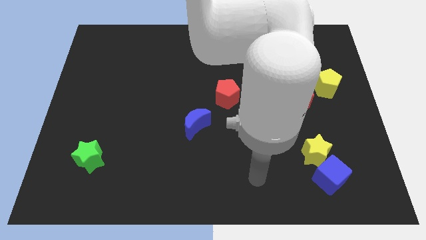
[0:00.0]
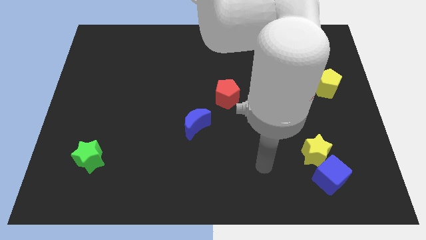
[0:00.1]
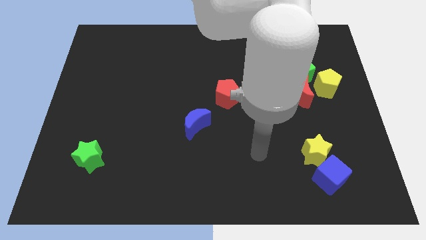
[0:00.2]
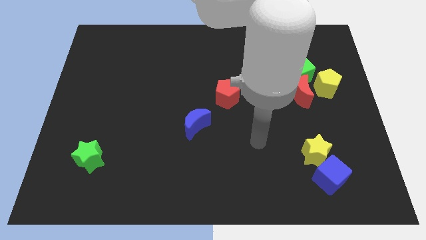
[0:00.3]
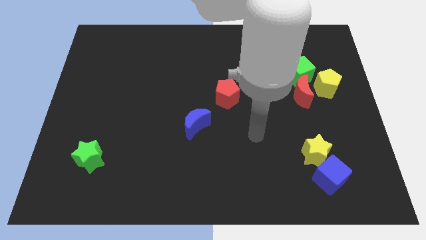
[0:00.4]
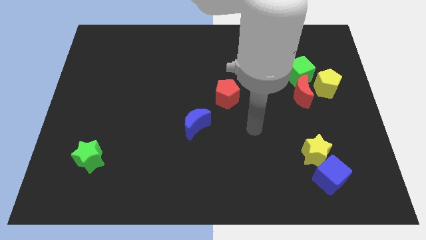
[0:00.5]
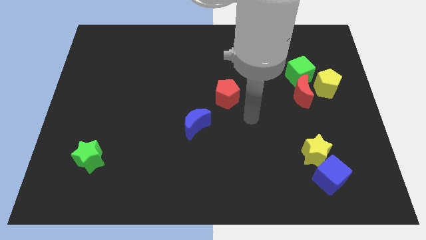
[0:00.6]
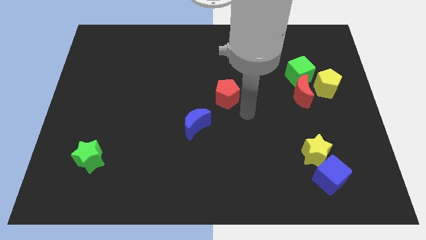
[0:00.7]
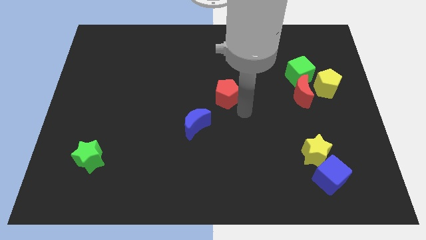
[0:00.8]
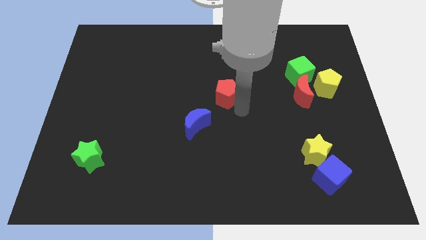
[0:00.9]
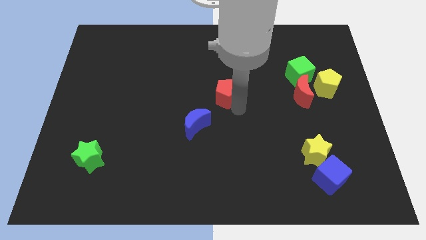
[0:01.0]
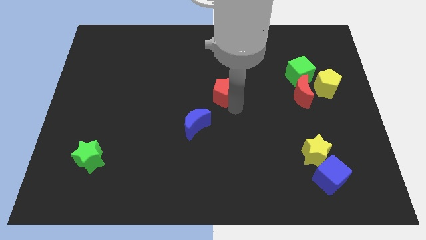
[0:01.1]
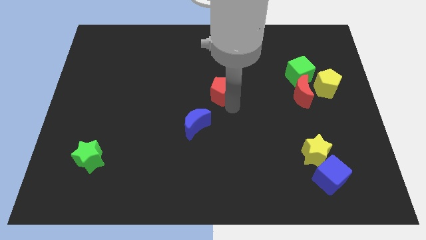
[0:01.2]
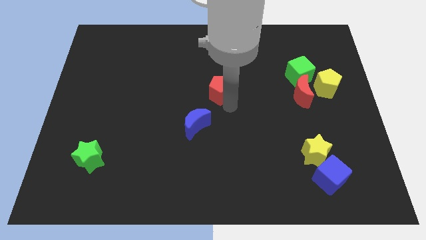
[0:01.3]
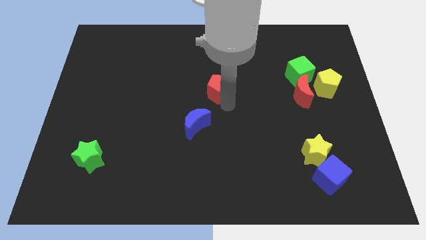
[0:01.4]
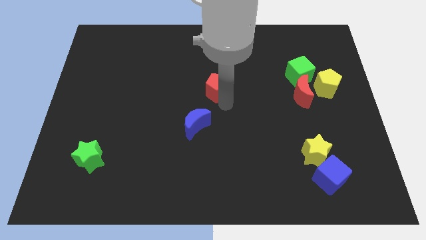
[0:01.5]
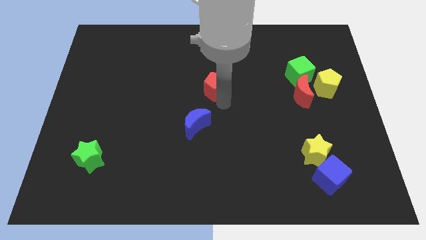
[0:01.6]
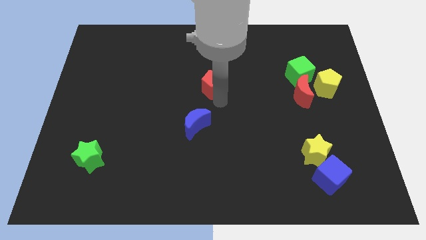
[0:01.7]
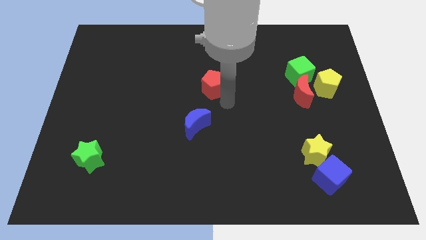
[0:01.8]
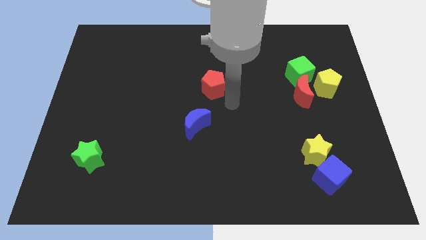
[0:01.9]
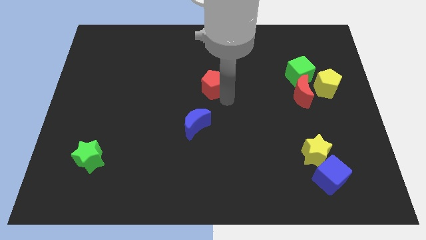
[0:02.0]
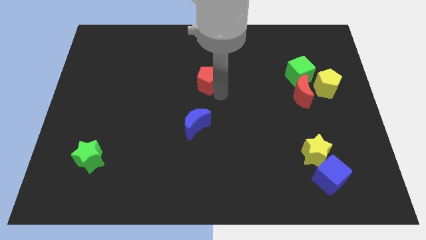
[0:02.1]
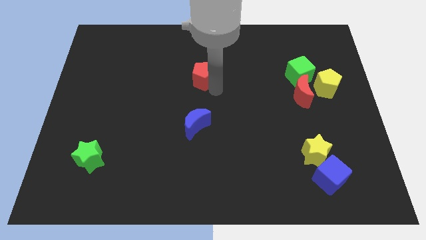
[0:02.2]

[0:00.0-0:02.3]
slightly move the red pentagon upwards and then left

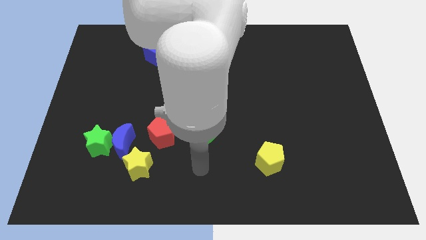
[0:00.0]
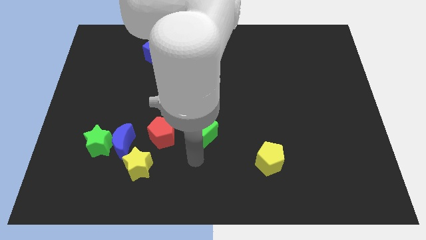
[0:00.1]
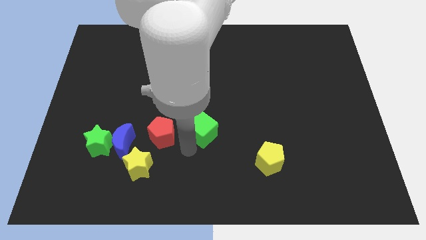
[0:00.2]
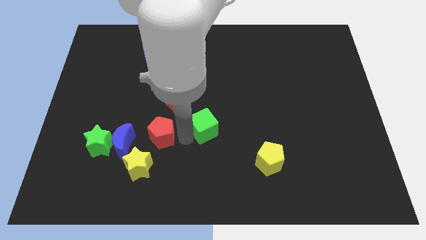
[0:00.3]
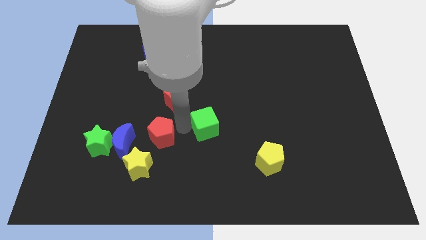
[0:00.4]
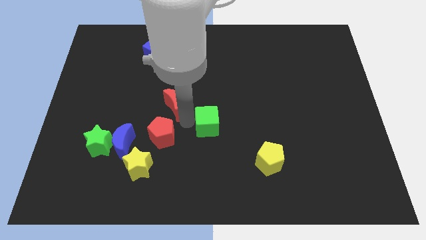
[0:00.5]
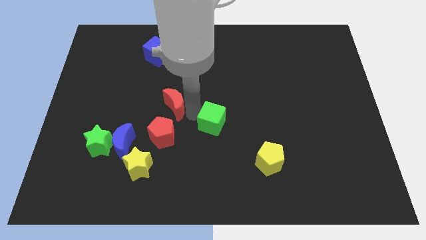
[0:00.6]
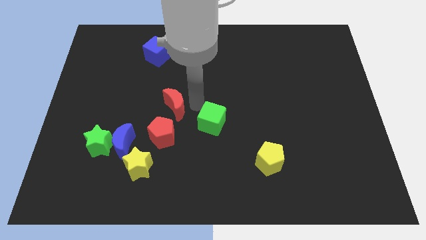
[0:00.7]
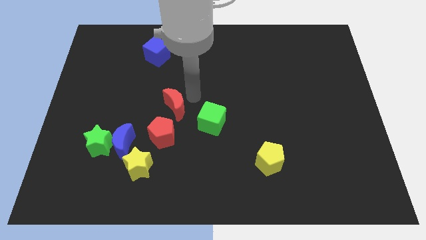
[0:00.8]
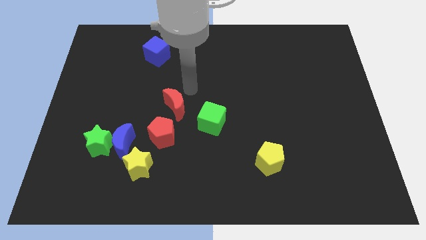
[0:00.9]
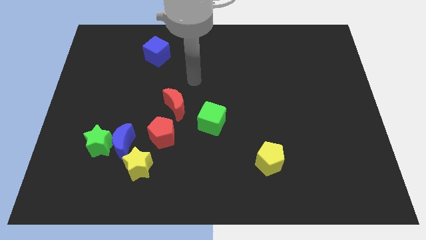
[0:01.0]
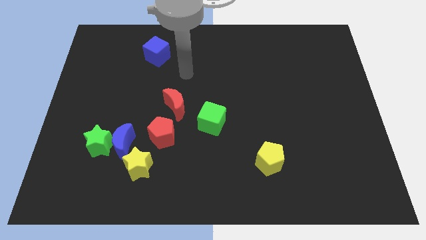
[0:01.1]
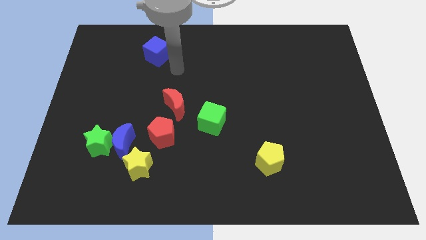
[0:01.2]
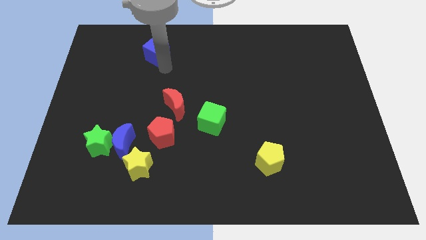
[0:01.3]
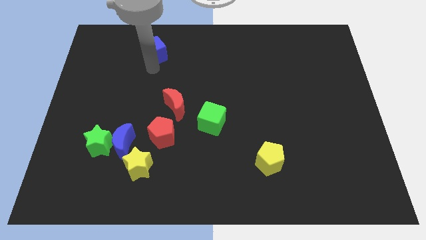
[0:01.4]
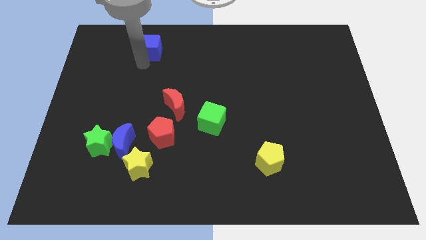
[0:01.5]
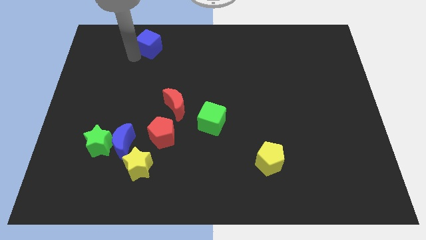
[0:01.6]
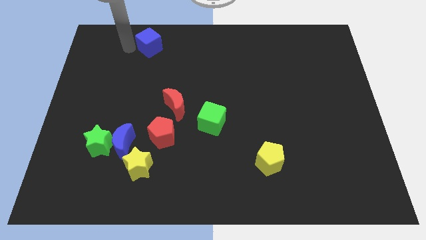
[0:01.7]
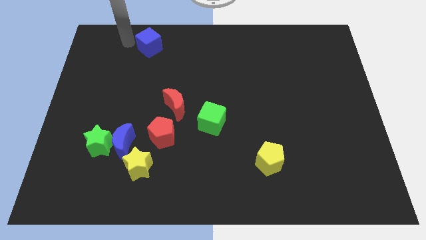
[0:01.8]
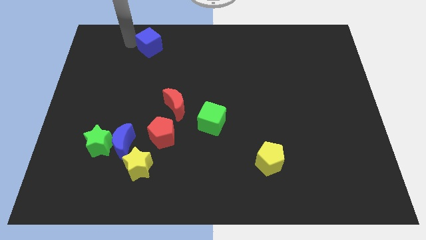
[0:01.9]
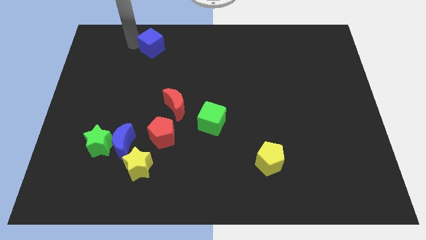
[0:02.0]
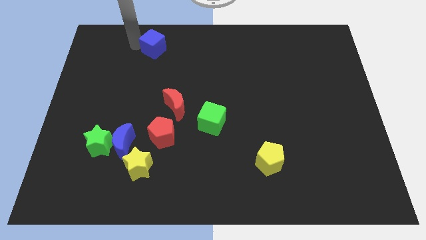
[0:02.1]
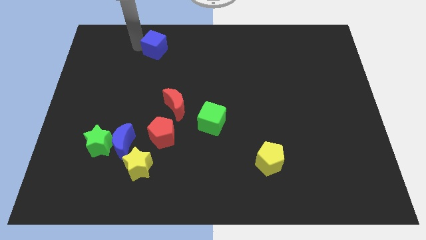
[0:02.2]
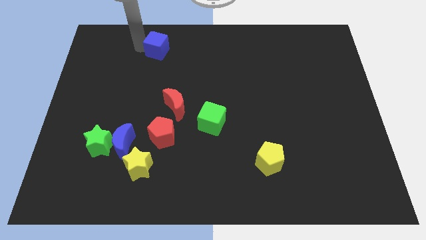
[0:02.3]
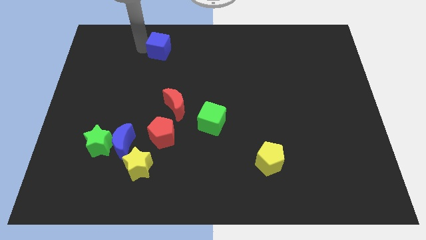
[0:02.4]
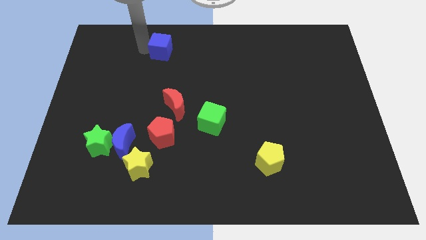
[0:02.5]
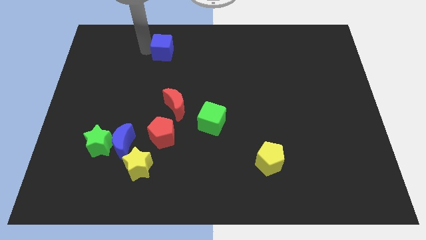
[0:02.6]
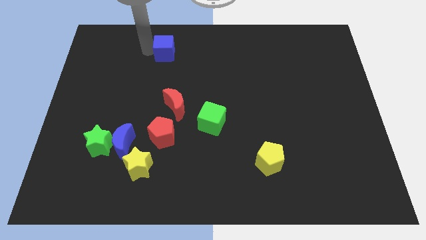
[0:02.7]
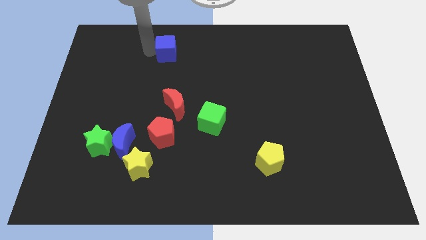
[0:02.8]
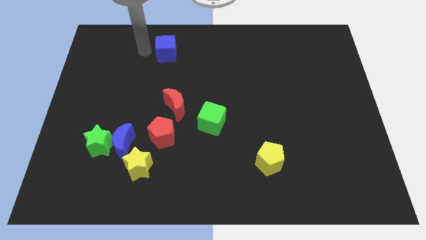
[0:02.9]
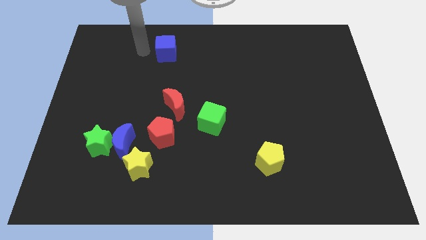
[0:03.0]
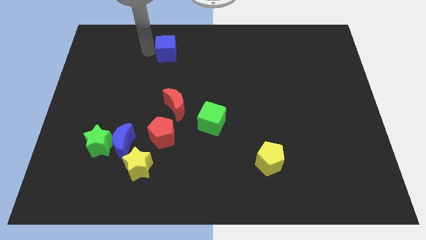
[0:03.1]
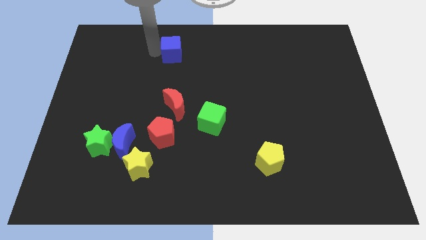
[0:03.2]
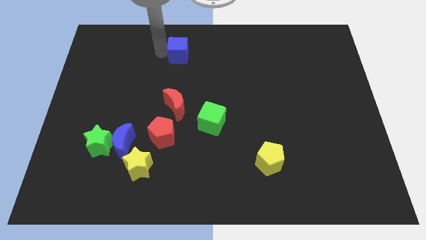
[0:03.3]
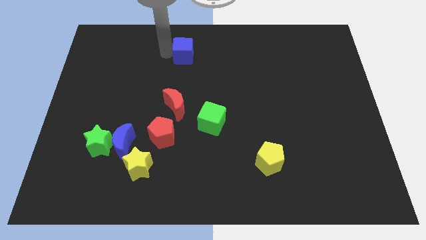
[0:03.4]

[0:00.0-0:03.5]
push the blue cube somewhat to the right

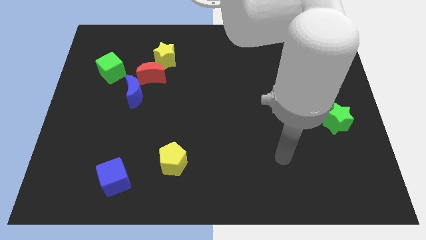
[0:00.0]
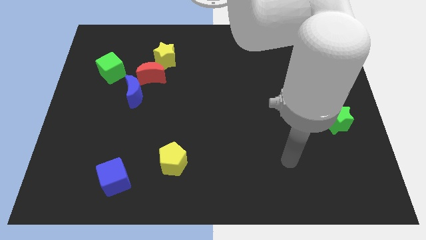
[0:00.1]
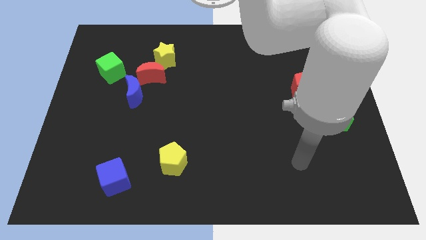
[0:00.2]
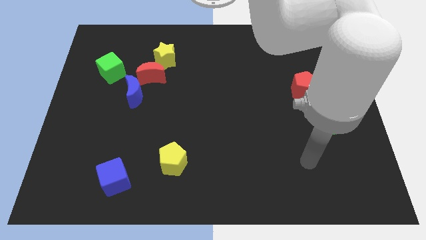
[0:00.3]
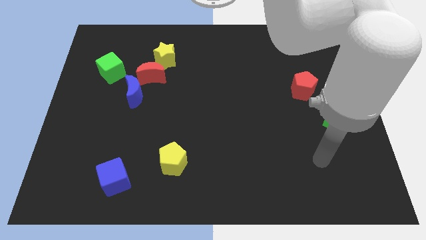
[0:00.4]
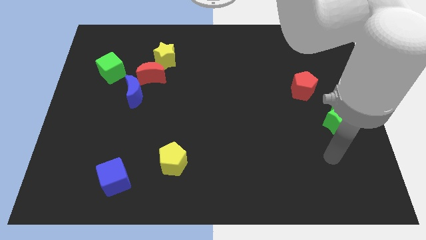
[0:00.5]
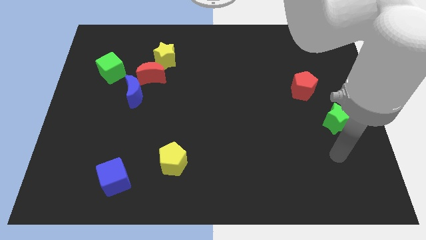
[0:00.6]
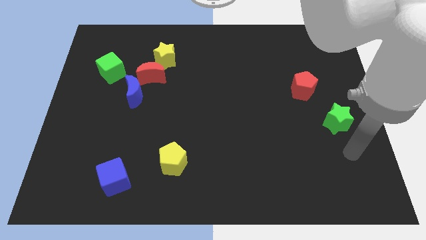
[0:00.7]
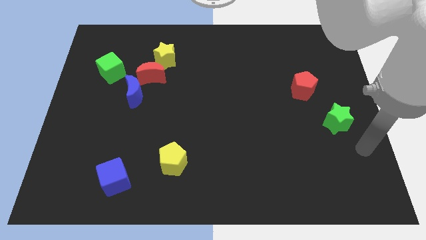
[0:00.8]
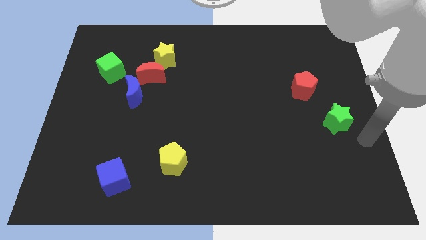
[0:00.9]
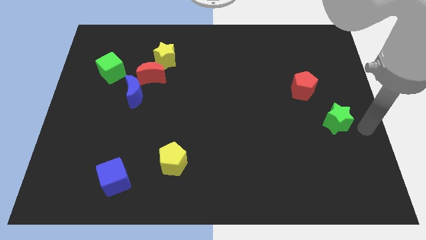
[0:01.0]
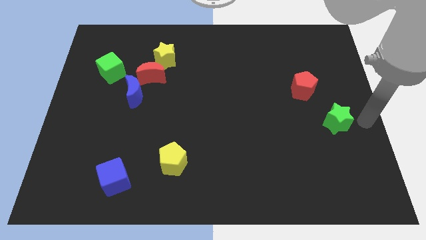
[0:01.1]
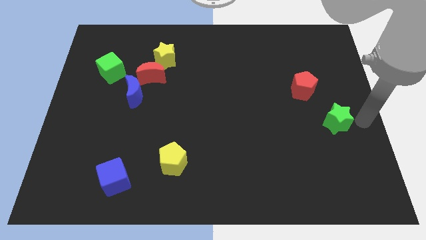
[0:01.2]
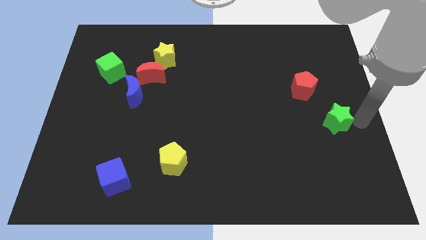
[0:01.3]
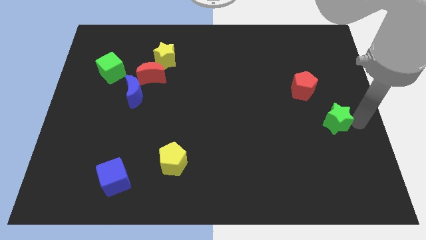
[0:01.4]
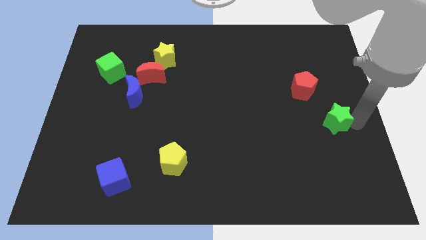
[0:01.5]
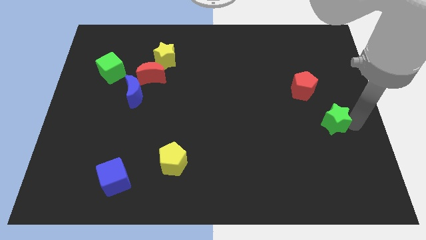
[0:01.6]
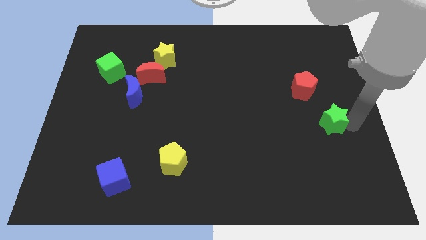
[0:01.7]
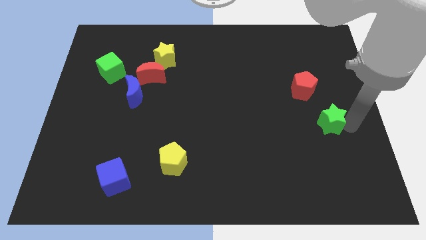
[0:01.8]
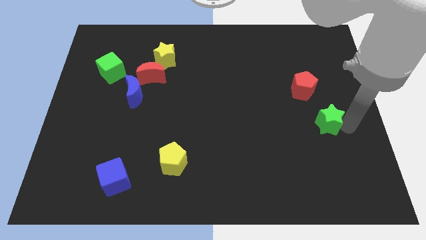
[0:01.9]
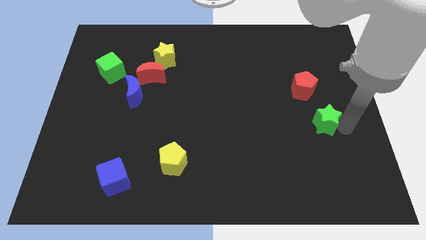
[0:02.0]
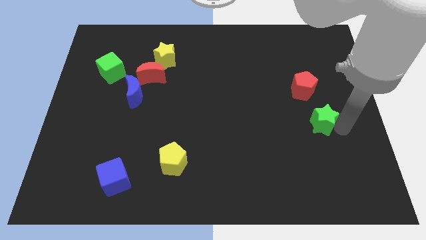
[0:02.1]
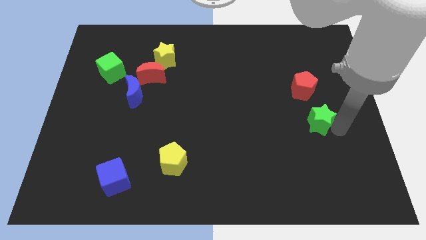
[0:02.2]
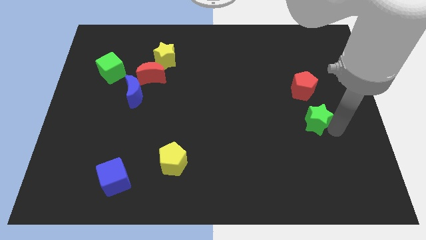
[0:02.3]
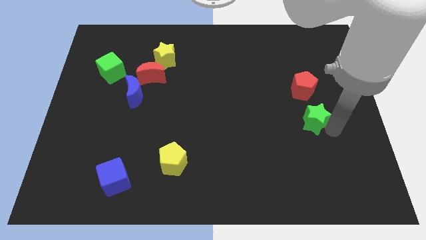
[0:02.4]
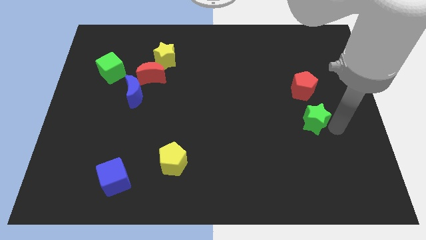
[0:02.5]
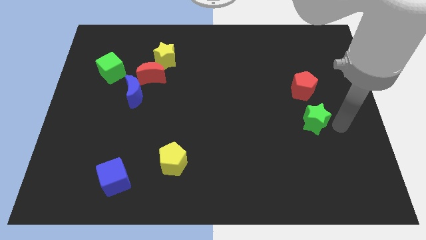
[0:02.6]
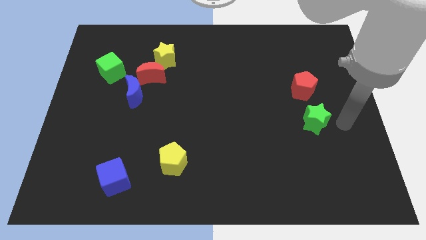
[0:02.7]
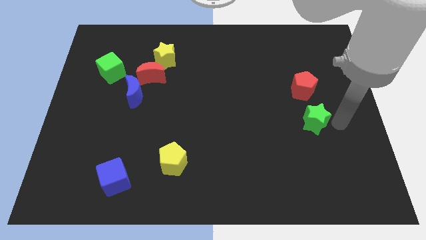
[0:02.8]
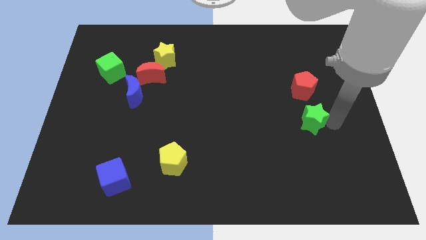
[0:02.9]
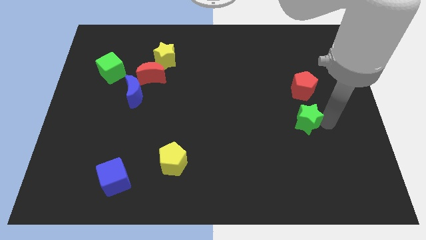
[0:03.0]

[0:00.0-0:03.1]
move the green star a little bit to the left
